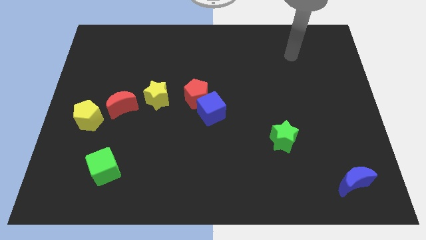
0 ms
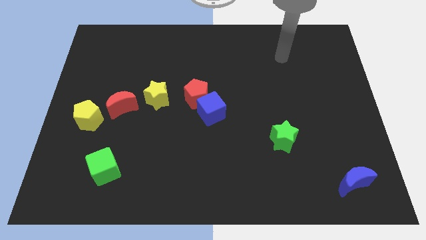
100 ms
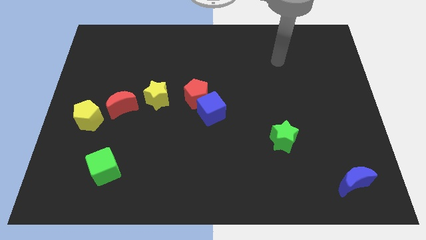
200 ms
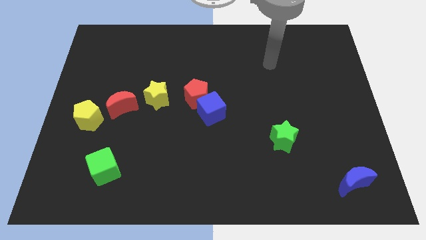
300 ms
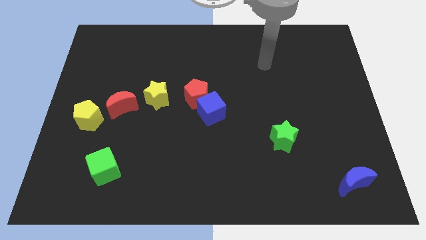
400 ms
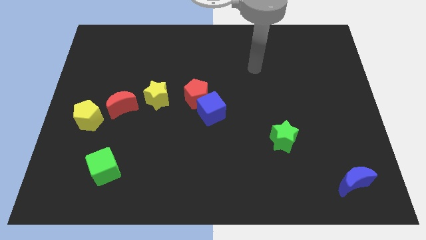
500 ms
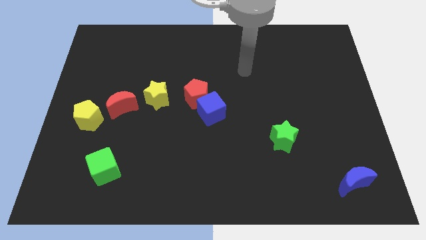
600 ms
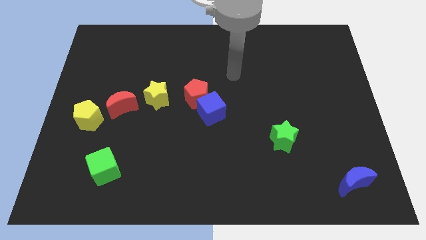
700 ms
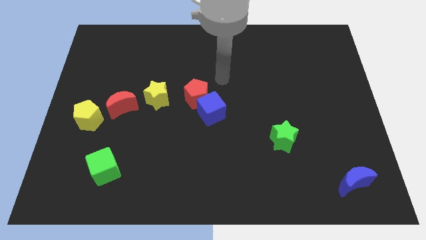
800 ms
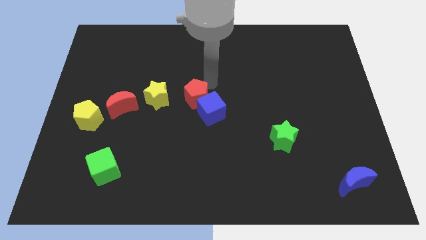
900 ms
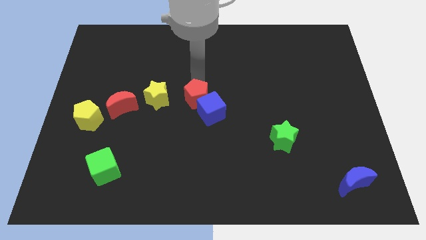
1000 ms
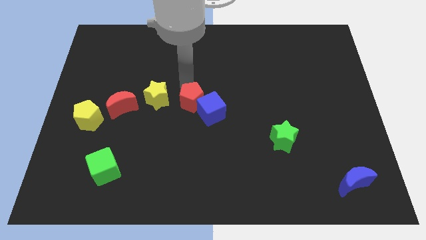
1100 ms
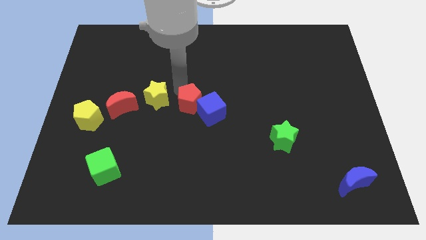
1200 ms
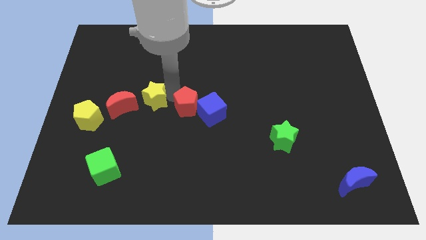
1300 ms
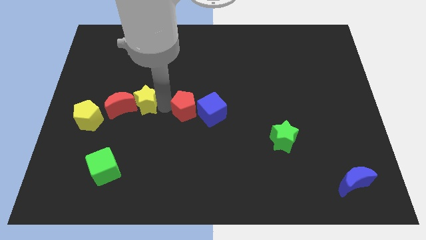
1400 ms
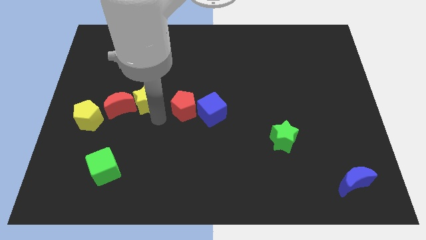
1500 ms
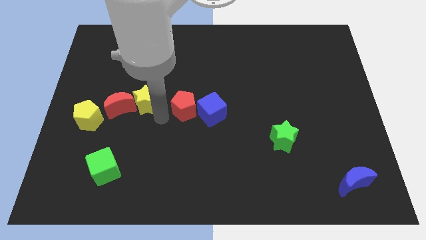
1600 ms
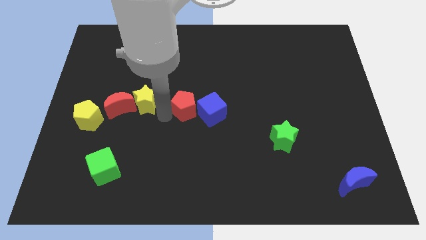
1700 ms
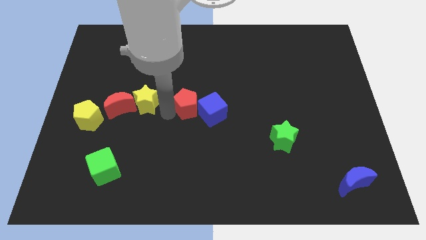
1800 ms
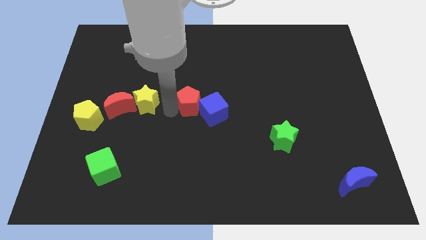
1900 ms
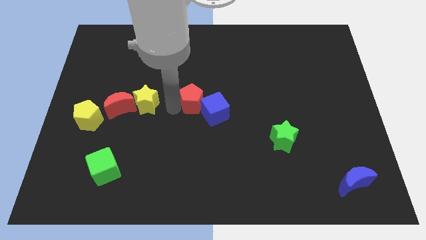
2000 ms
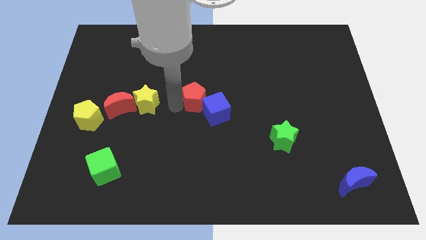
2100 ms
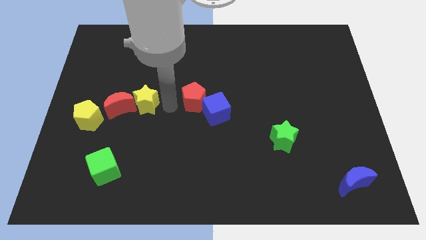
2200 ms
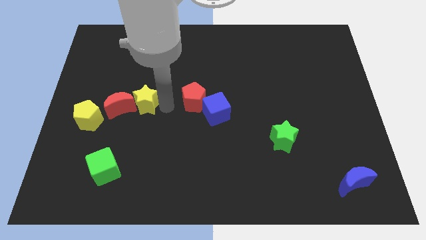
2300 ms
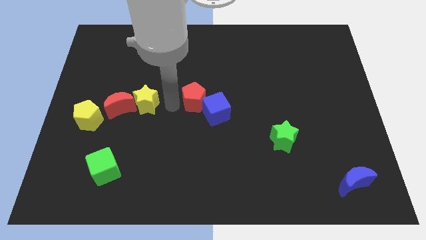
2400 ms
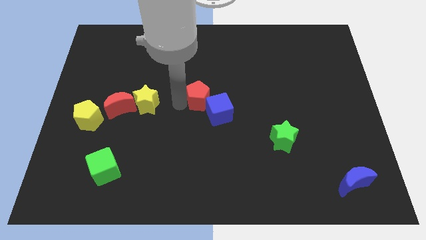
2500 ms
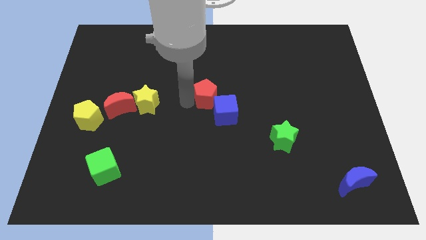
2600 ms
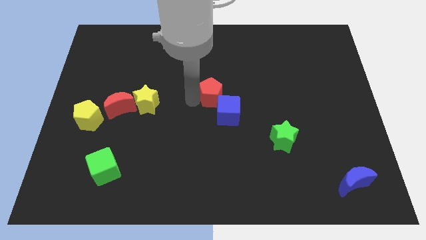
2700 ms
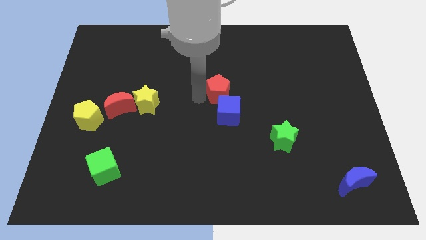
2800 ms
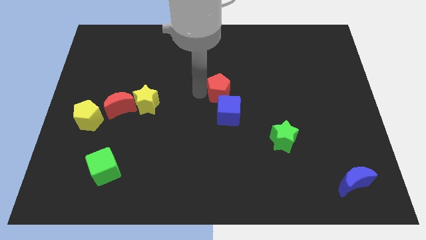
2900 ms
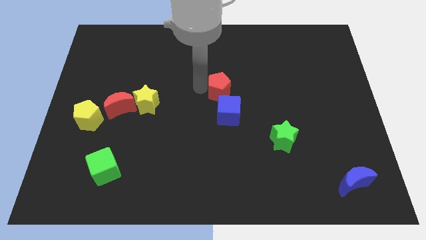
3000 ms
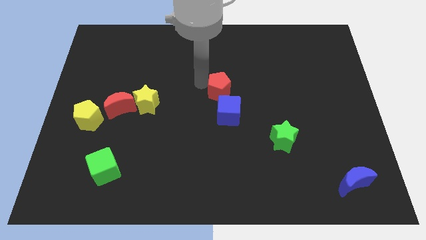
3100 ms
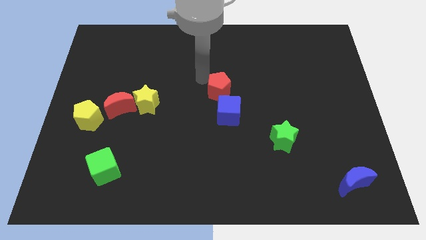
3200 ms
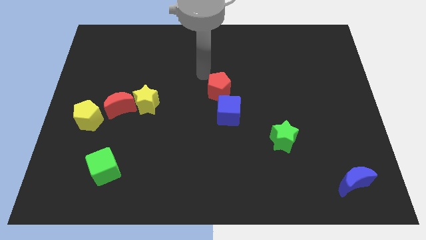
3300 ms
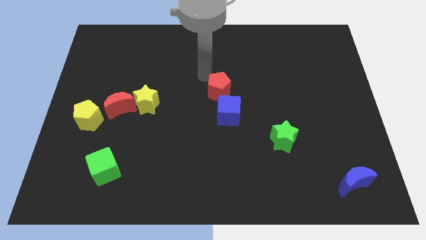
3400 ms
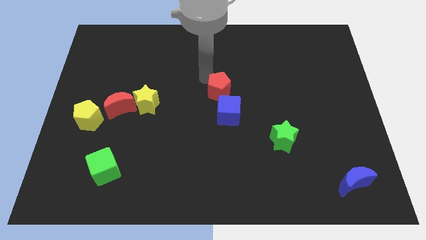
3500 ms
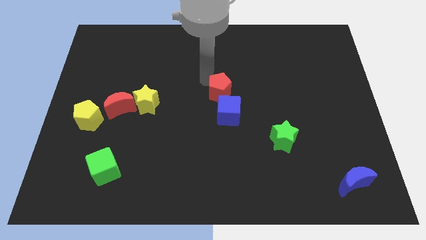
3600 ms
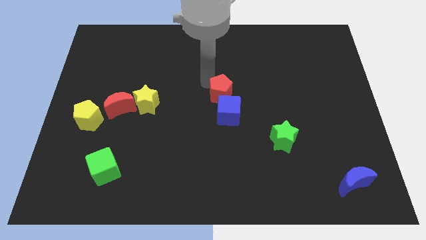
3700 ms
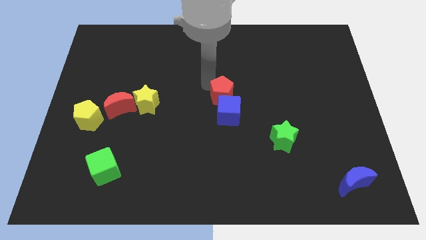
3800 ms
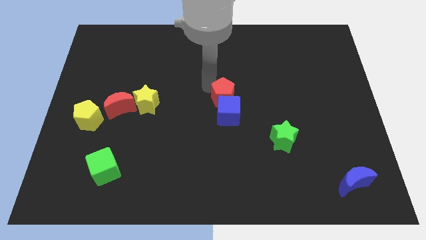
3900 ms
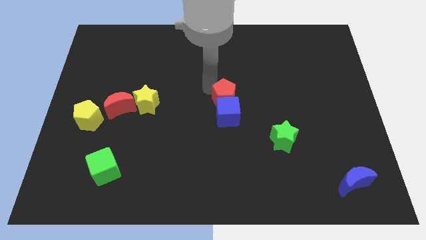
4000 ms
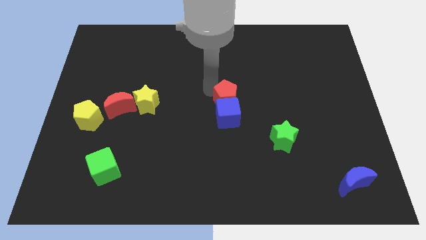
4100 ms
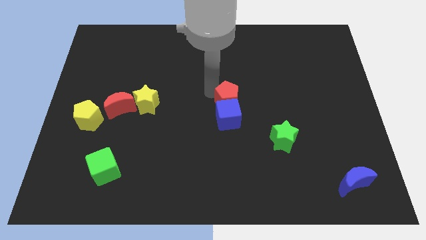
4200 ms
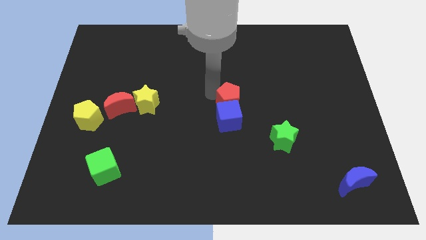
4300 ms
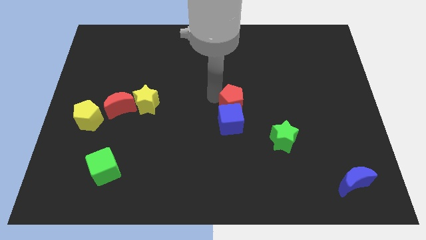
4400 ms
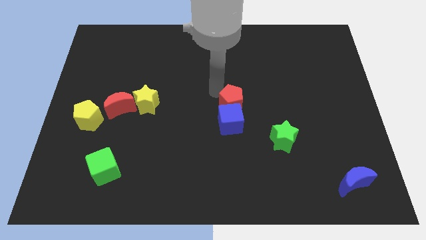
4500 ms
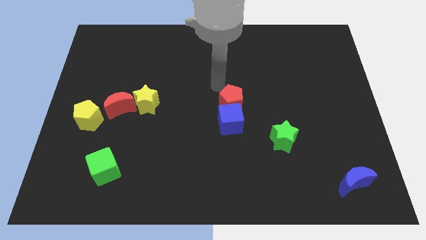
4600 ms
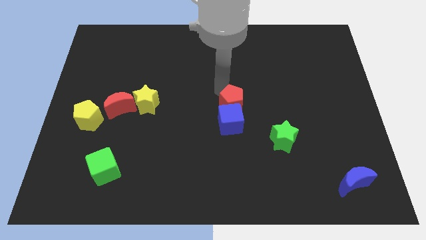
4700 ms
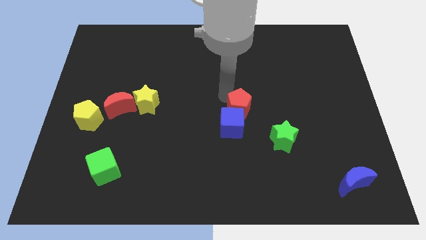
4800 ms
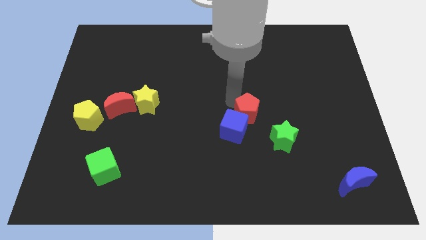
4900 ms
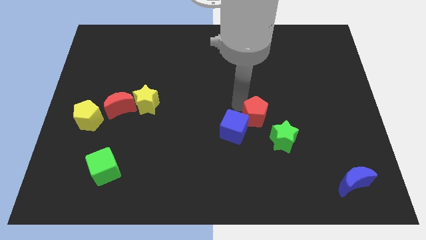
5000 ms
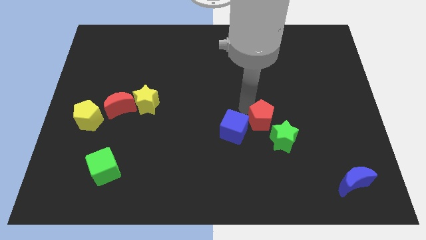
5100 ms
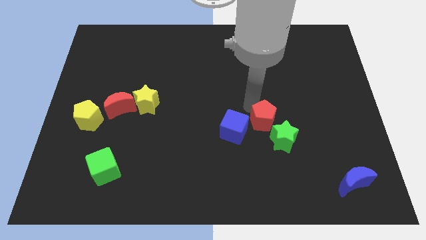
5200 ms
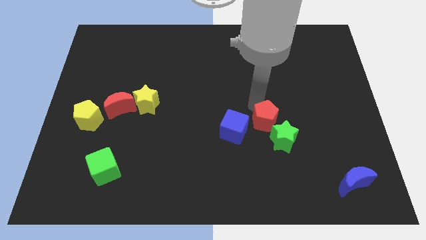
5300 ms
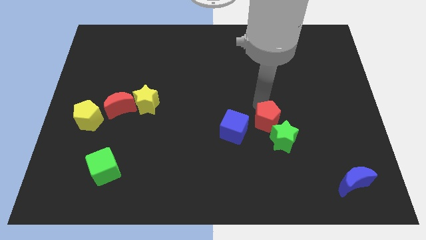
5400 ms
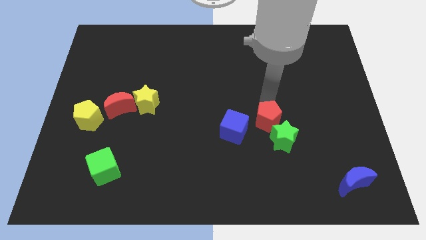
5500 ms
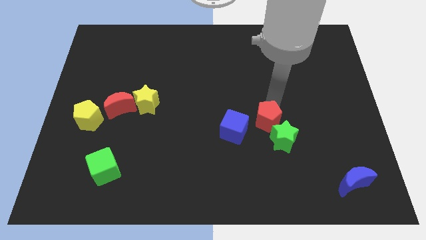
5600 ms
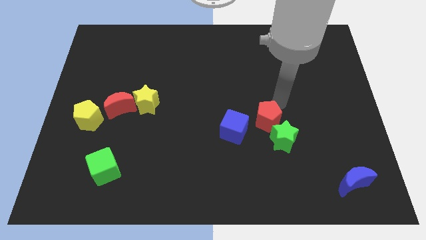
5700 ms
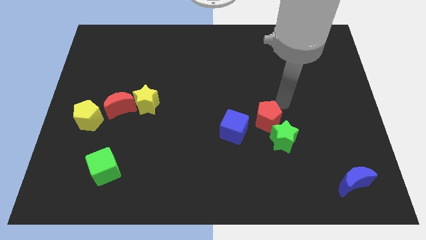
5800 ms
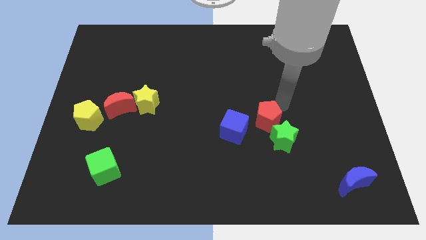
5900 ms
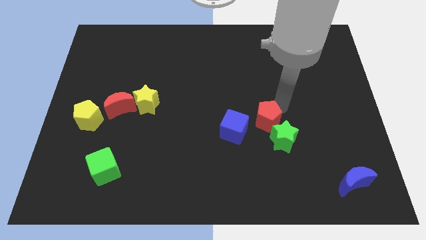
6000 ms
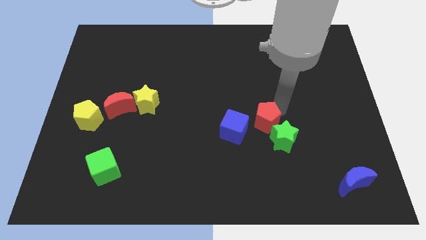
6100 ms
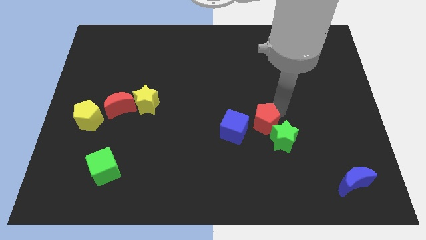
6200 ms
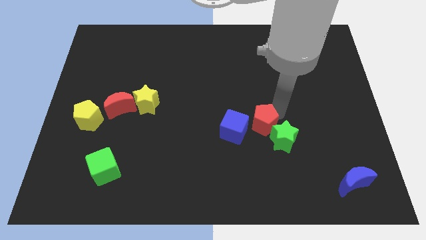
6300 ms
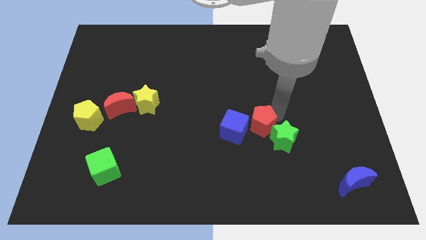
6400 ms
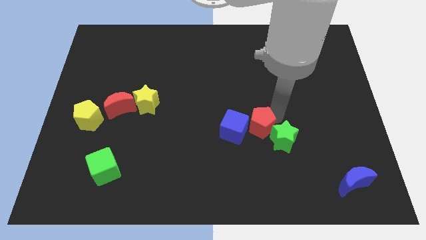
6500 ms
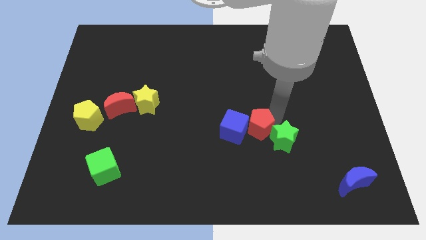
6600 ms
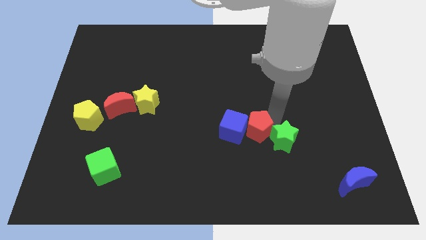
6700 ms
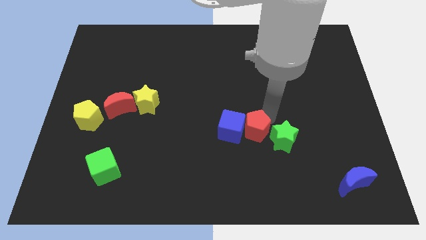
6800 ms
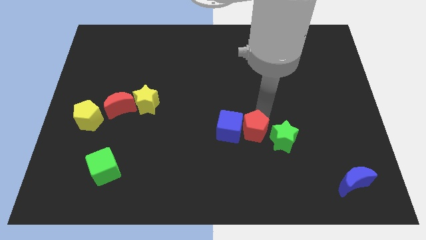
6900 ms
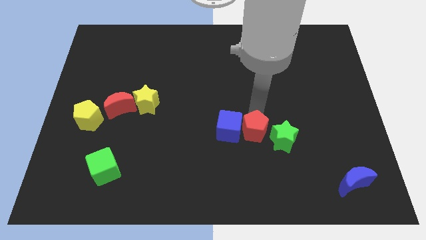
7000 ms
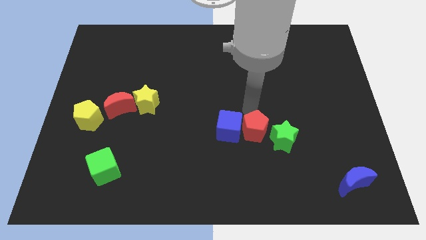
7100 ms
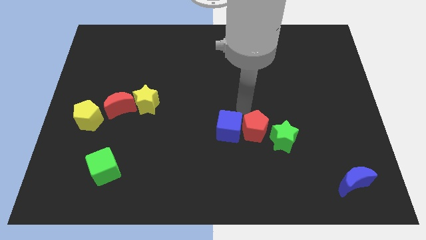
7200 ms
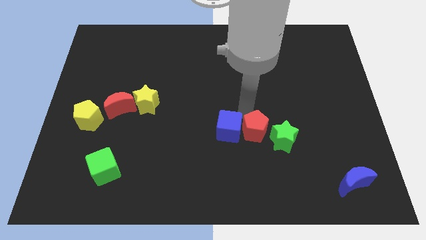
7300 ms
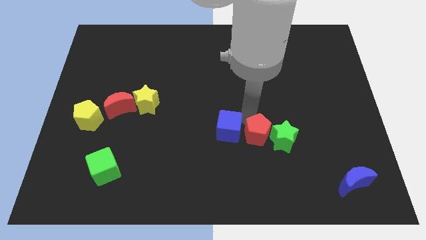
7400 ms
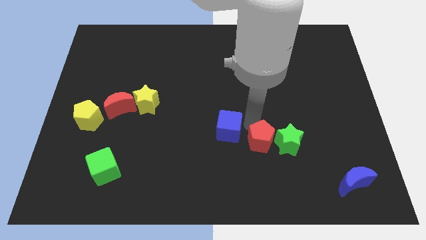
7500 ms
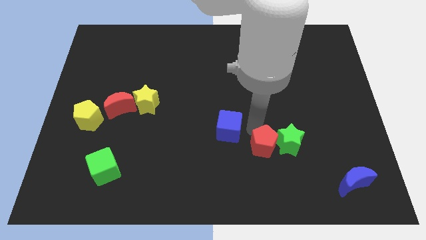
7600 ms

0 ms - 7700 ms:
slide the red pentagon downwards and then to the right
